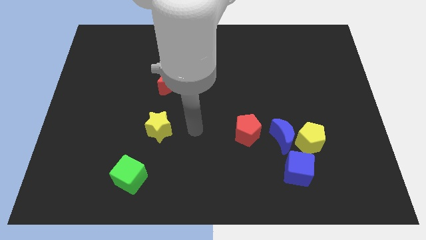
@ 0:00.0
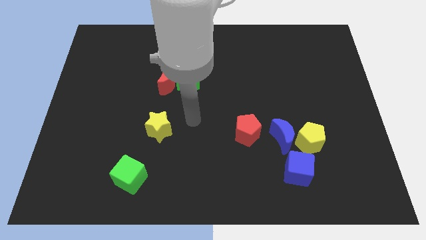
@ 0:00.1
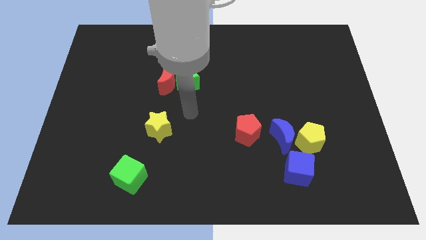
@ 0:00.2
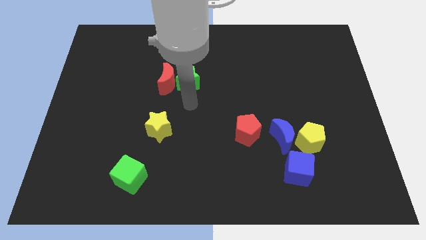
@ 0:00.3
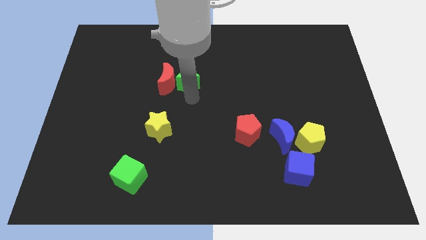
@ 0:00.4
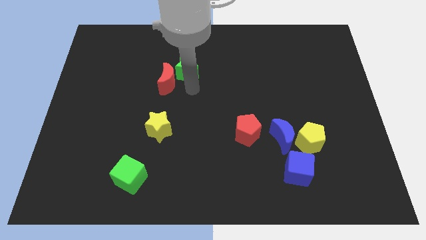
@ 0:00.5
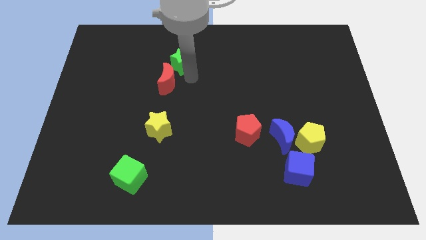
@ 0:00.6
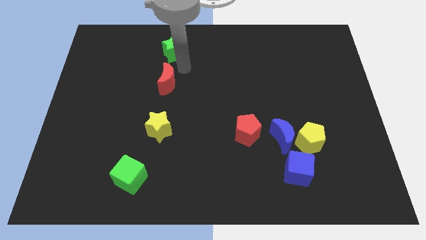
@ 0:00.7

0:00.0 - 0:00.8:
move the red moon away from the green star

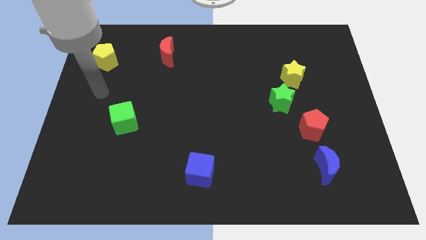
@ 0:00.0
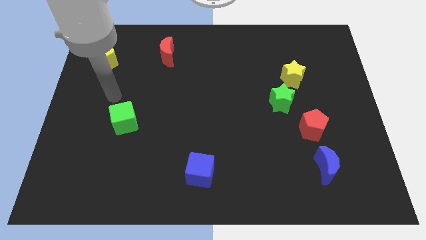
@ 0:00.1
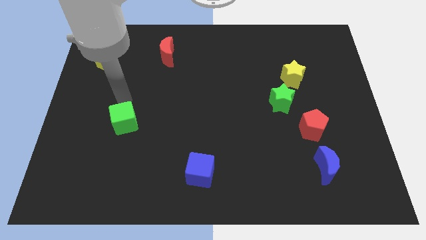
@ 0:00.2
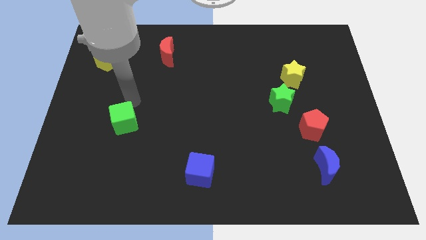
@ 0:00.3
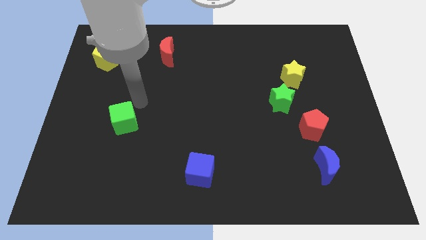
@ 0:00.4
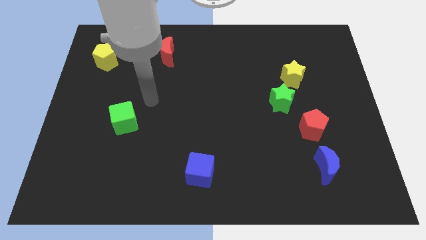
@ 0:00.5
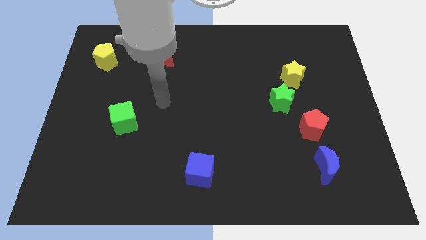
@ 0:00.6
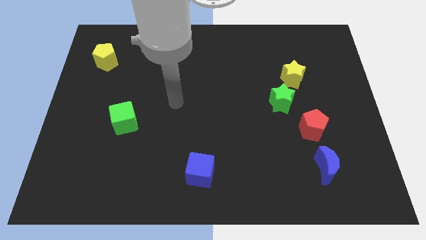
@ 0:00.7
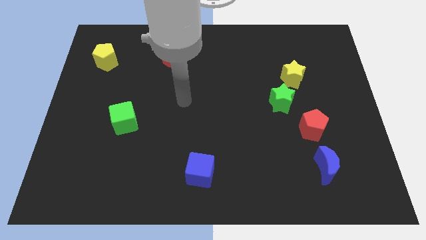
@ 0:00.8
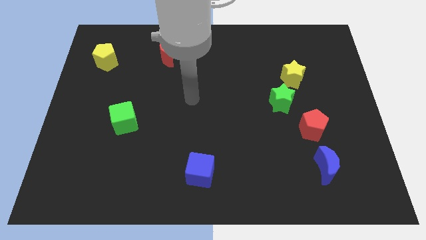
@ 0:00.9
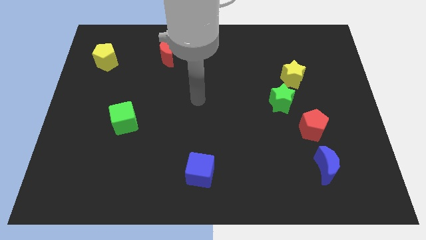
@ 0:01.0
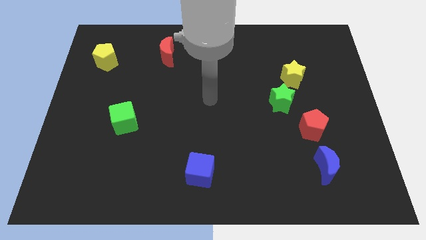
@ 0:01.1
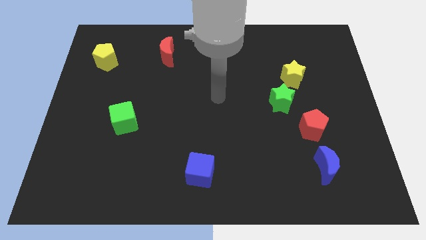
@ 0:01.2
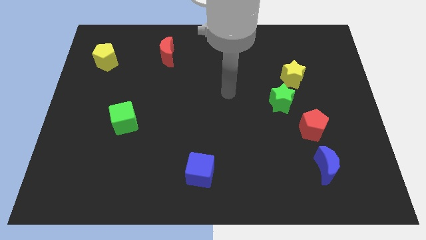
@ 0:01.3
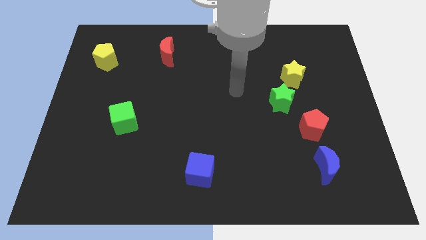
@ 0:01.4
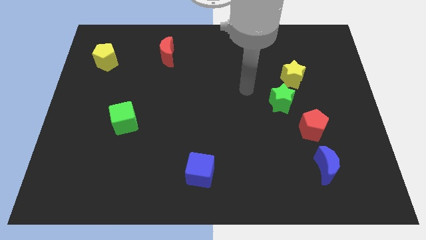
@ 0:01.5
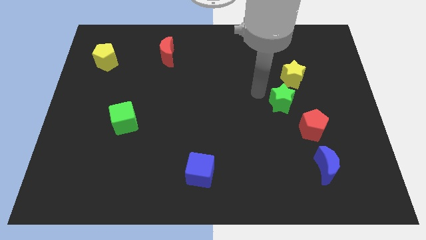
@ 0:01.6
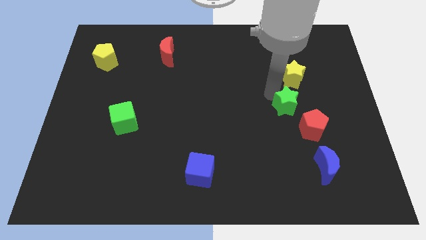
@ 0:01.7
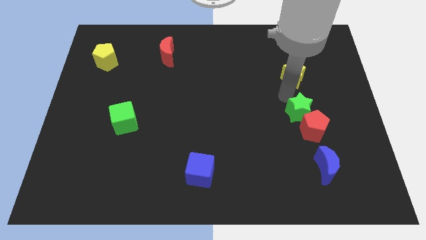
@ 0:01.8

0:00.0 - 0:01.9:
separate the yellow star from the green star

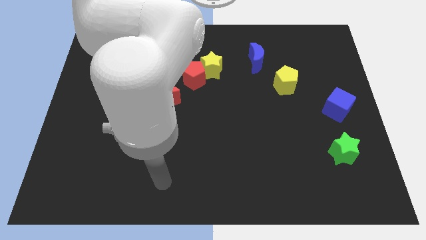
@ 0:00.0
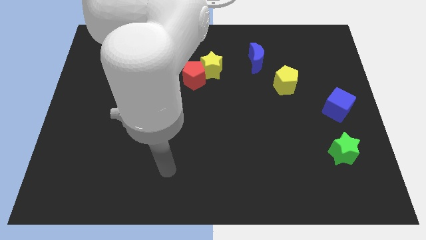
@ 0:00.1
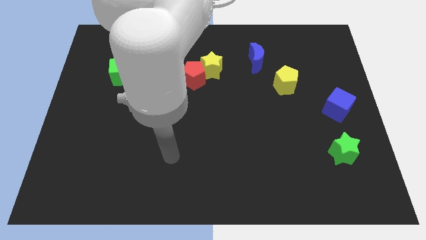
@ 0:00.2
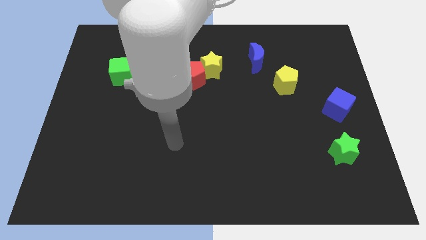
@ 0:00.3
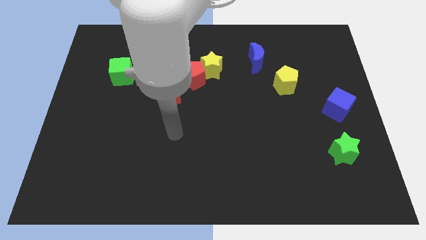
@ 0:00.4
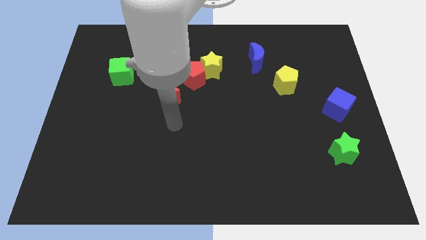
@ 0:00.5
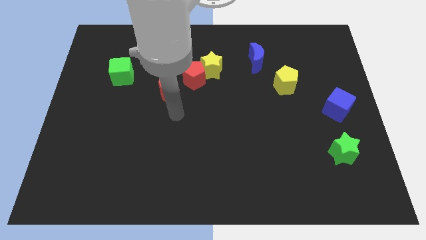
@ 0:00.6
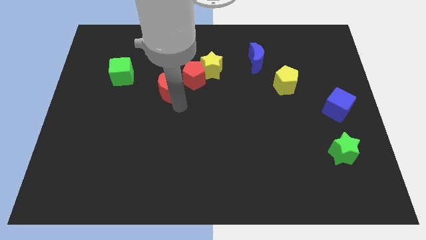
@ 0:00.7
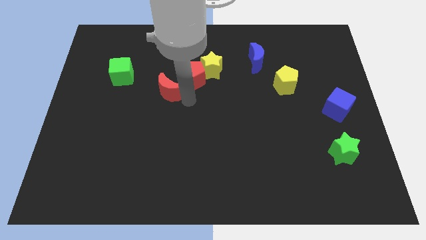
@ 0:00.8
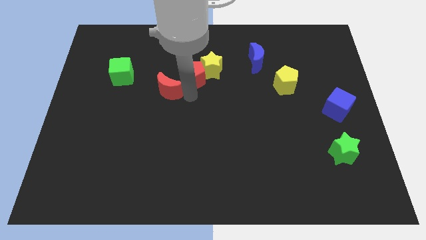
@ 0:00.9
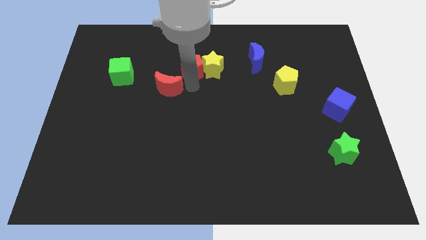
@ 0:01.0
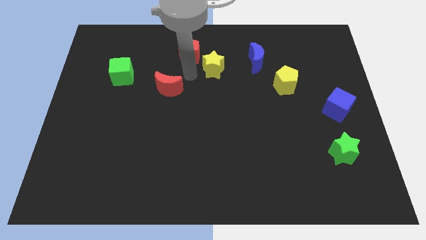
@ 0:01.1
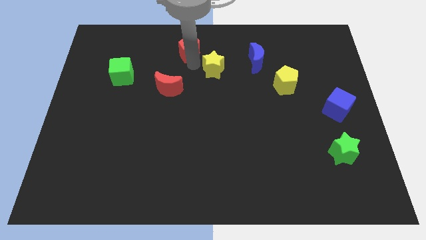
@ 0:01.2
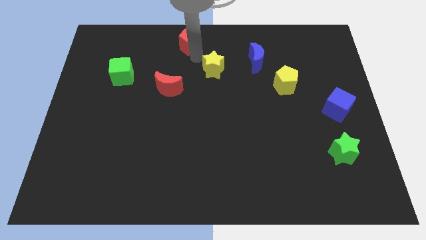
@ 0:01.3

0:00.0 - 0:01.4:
separate the yellow star from the red pentagon

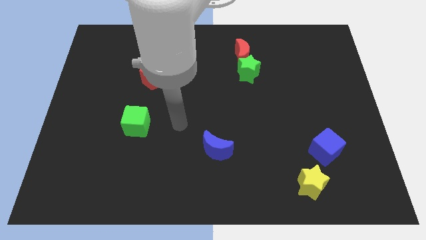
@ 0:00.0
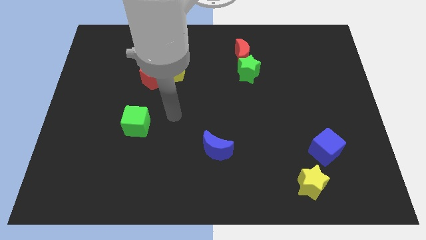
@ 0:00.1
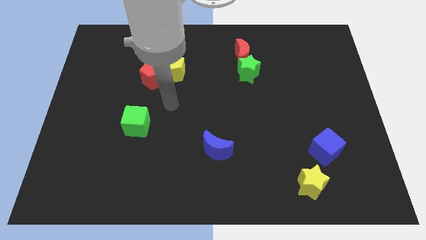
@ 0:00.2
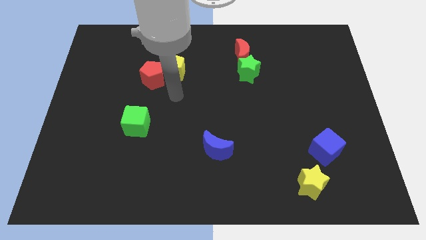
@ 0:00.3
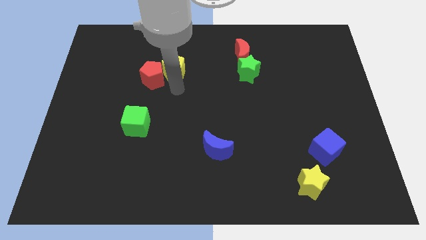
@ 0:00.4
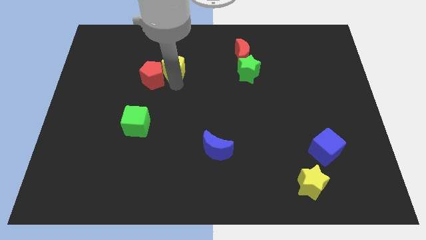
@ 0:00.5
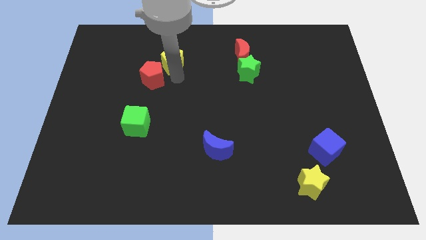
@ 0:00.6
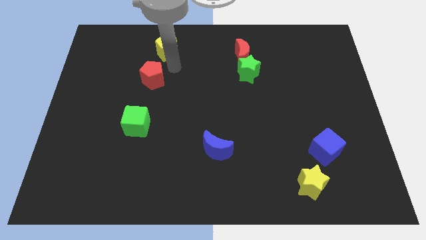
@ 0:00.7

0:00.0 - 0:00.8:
pull the red pentagon apart from the yellow pentagon

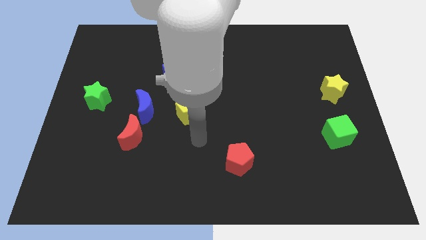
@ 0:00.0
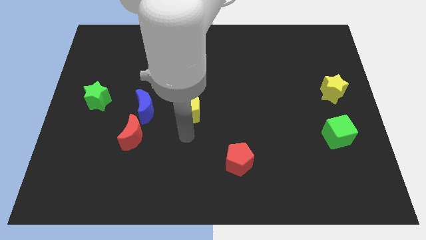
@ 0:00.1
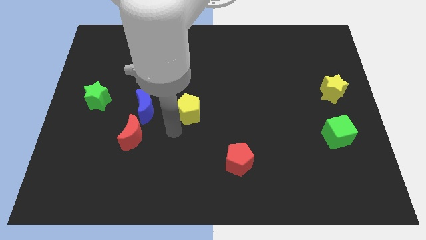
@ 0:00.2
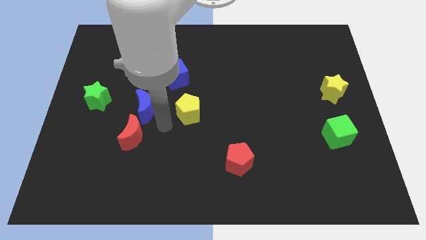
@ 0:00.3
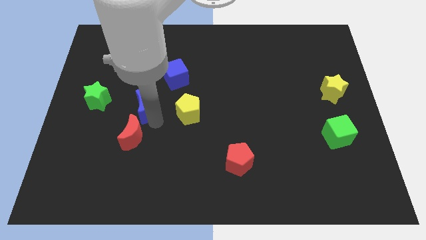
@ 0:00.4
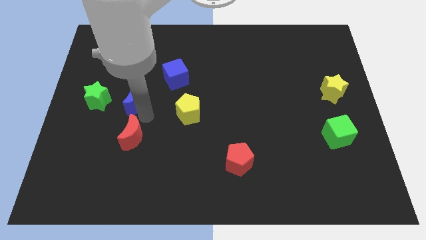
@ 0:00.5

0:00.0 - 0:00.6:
move the red moon away from the blue moon

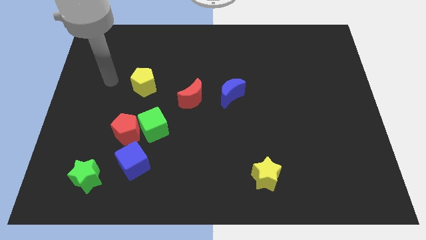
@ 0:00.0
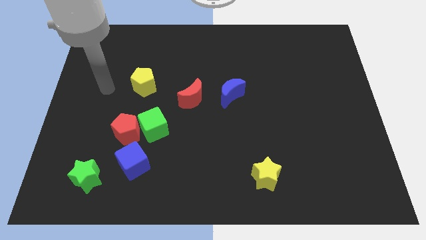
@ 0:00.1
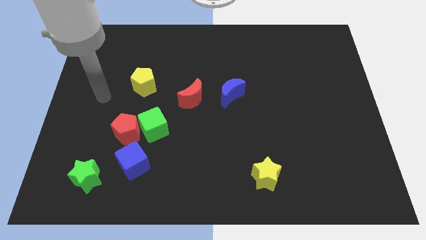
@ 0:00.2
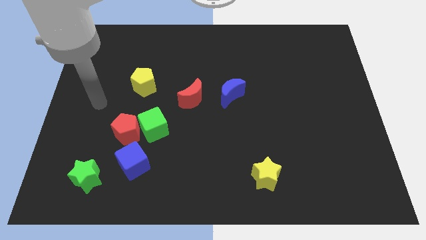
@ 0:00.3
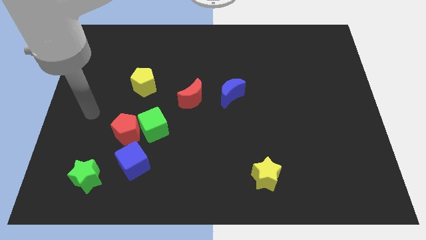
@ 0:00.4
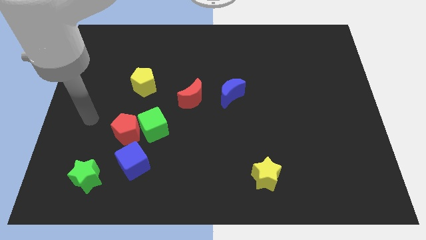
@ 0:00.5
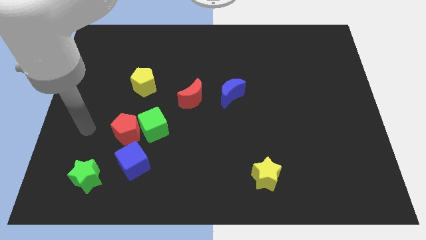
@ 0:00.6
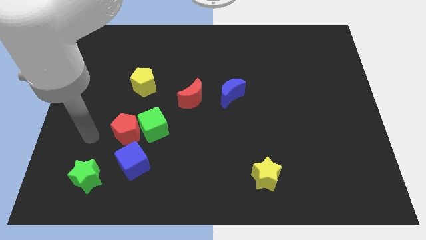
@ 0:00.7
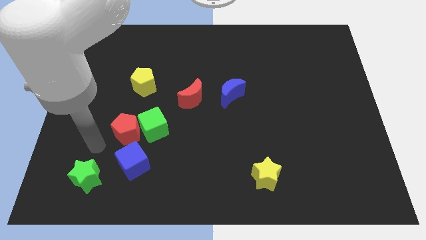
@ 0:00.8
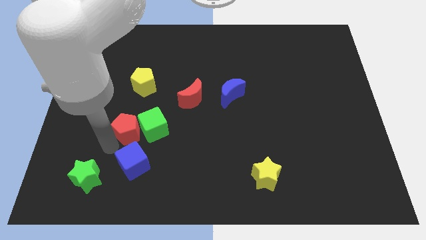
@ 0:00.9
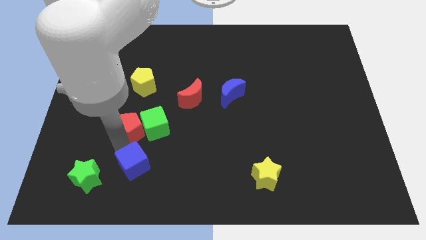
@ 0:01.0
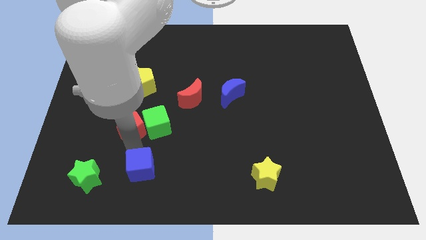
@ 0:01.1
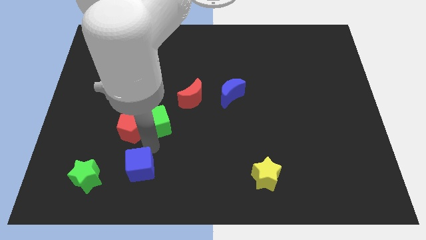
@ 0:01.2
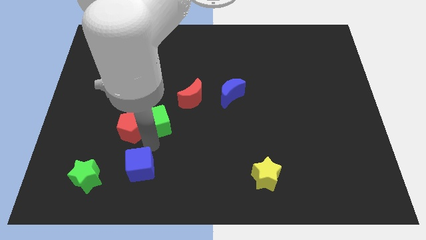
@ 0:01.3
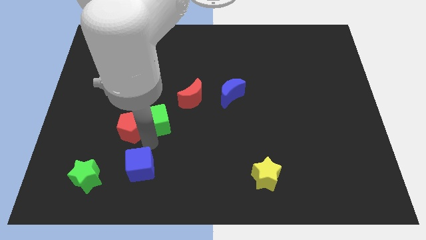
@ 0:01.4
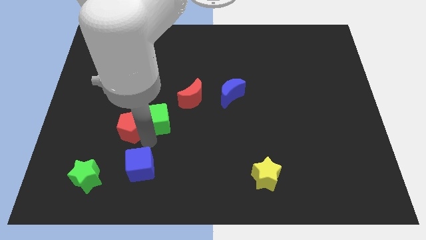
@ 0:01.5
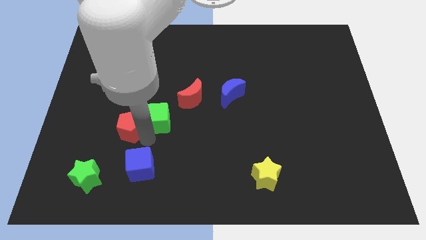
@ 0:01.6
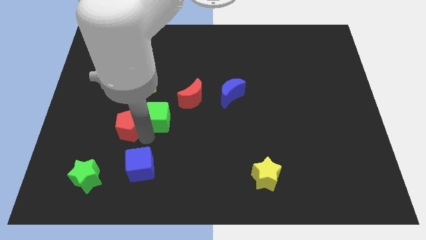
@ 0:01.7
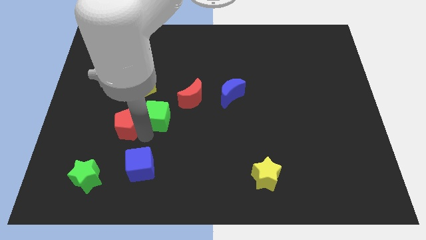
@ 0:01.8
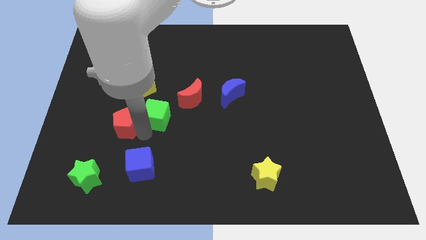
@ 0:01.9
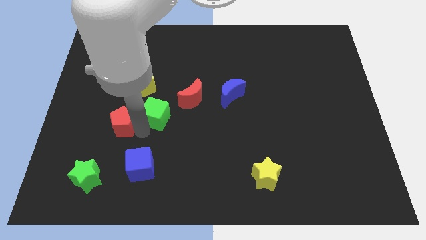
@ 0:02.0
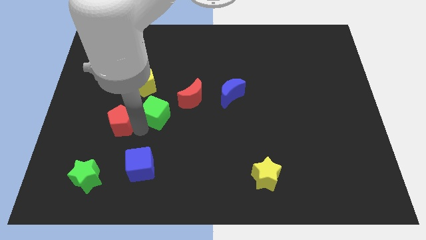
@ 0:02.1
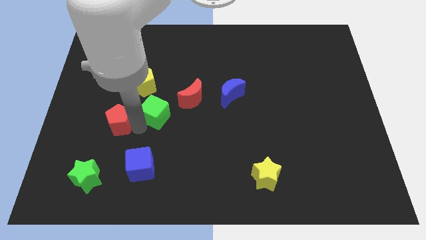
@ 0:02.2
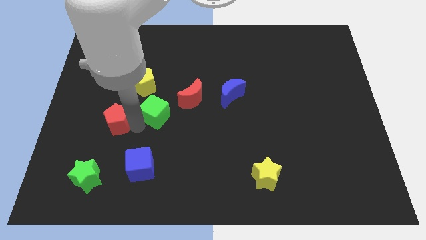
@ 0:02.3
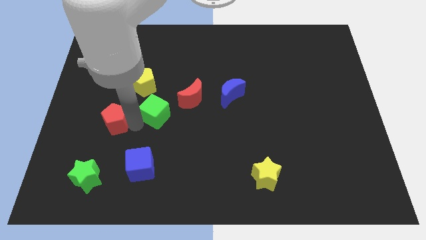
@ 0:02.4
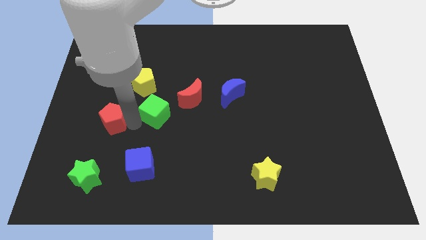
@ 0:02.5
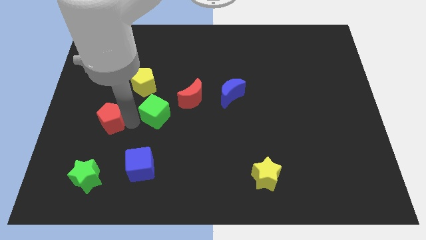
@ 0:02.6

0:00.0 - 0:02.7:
move the red pentagon away from the green cube and blue cube

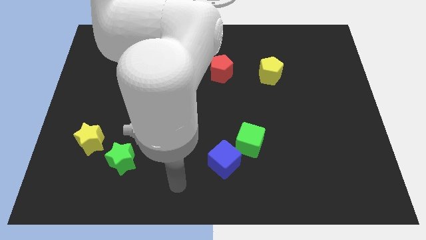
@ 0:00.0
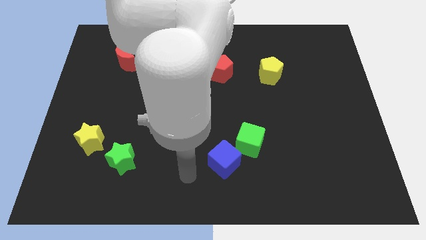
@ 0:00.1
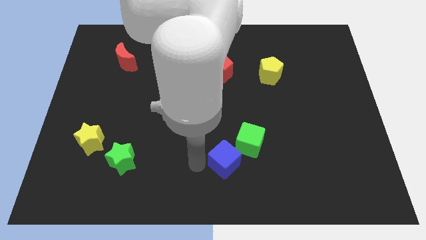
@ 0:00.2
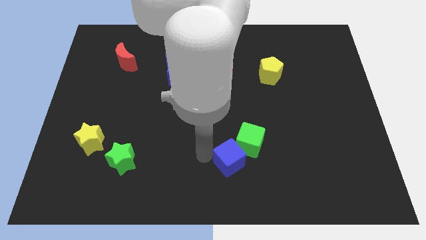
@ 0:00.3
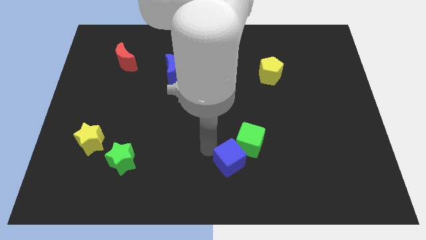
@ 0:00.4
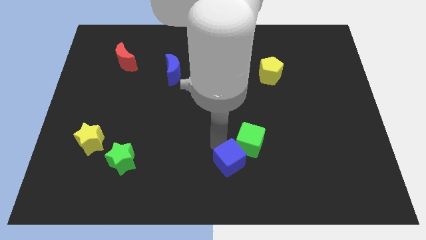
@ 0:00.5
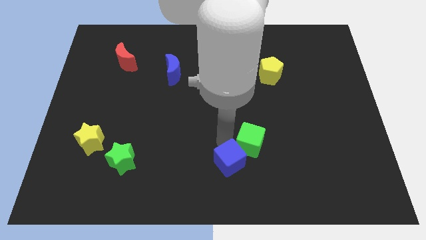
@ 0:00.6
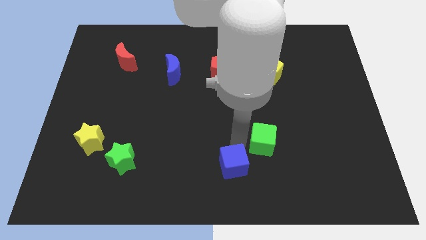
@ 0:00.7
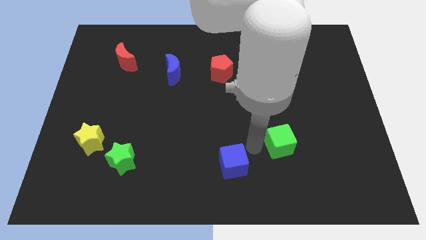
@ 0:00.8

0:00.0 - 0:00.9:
move the blue cube away from the green cube

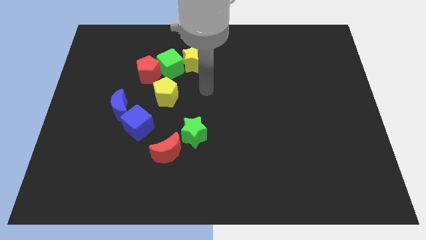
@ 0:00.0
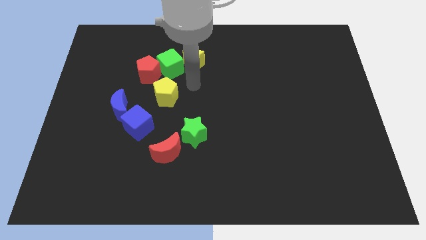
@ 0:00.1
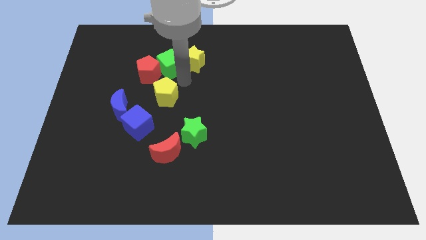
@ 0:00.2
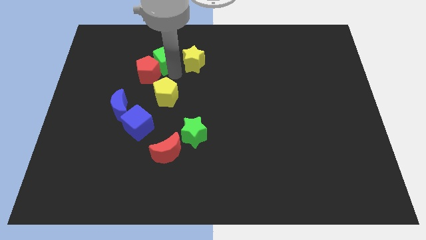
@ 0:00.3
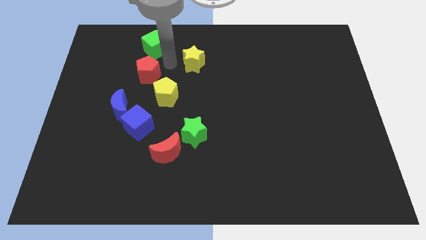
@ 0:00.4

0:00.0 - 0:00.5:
pull the yellow star apart from the green cube
